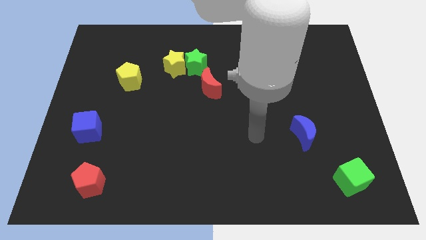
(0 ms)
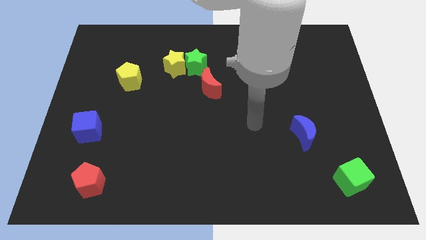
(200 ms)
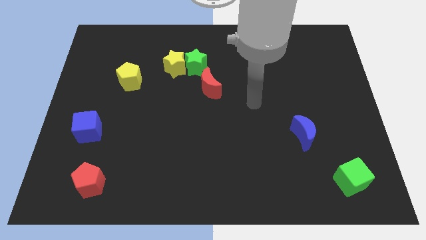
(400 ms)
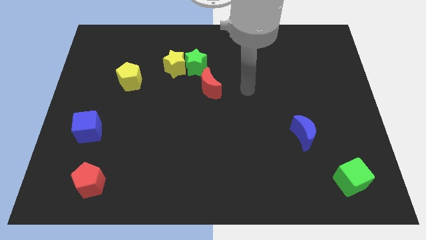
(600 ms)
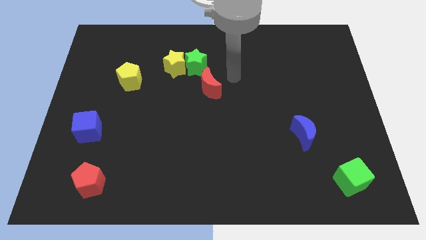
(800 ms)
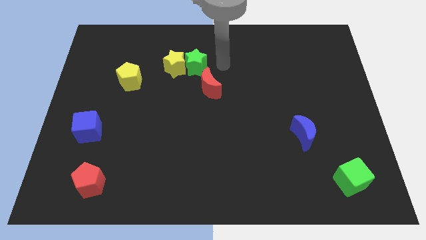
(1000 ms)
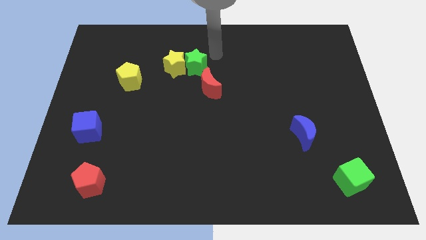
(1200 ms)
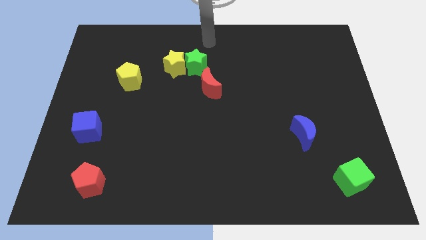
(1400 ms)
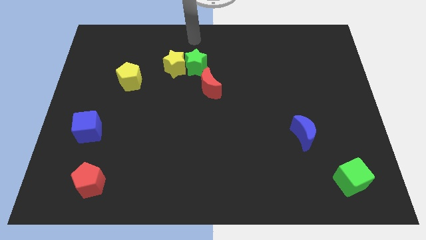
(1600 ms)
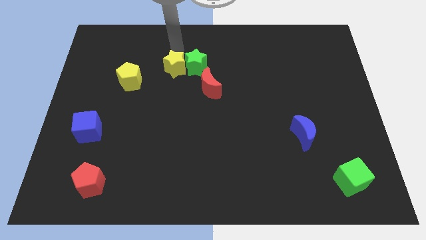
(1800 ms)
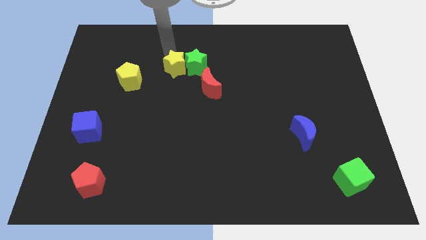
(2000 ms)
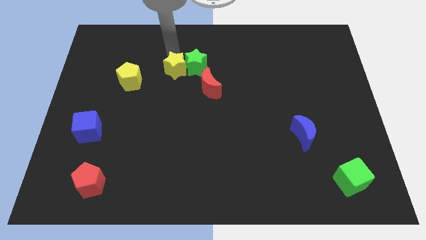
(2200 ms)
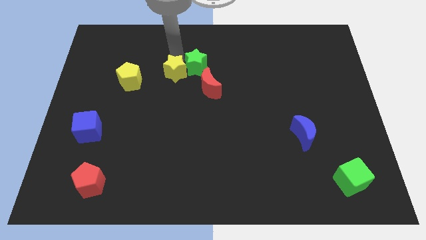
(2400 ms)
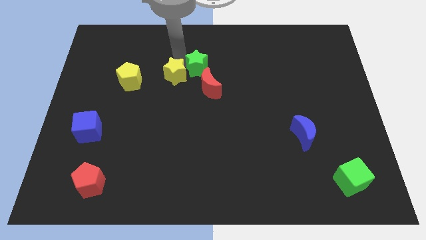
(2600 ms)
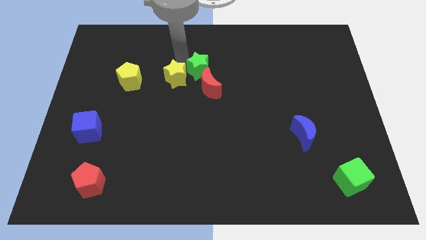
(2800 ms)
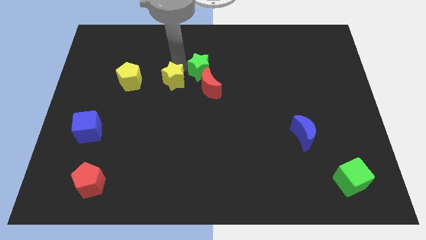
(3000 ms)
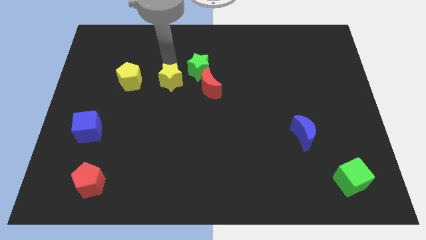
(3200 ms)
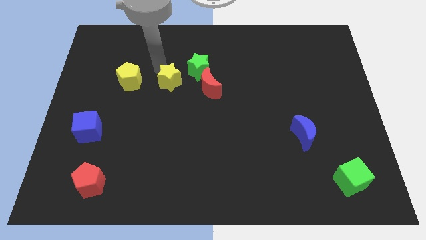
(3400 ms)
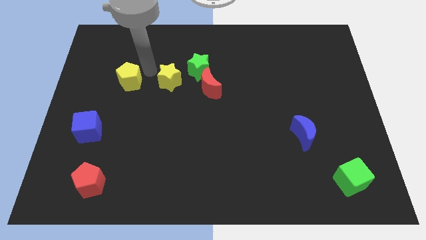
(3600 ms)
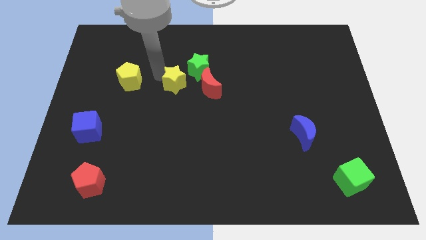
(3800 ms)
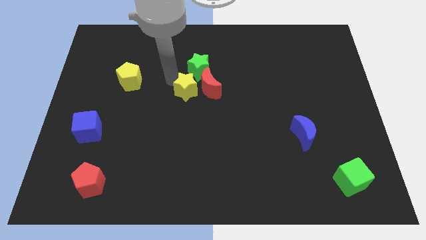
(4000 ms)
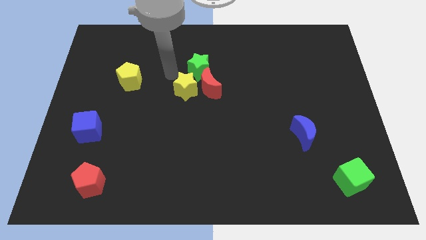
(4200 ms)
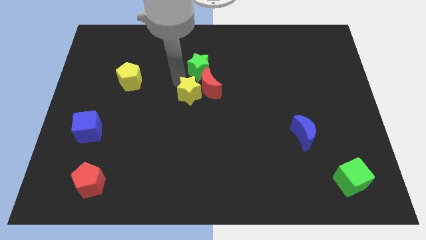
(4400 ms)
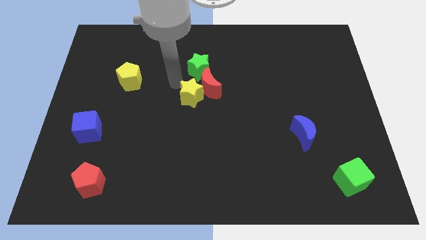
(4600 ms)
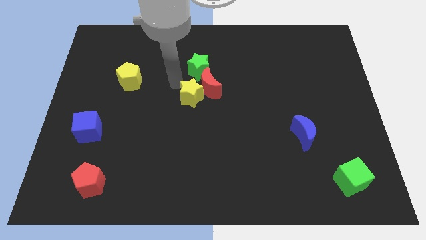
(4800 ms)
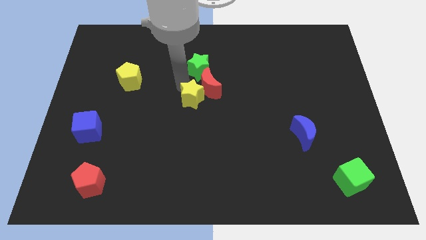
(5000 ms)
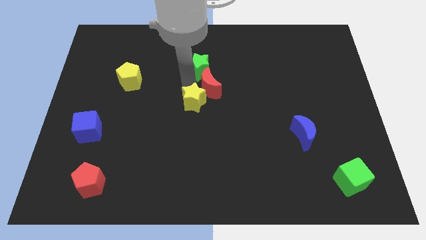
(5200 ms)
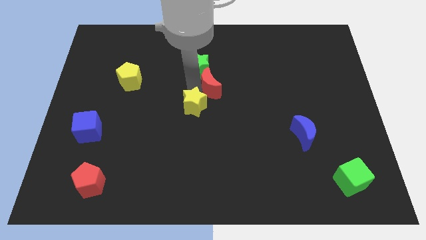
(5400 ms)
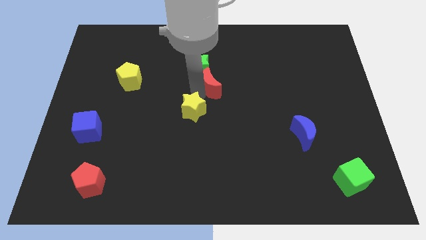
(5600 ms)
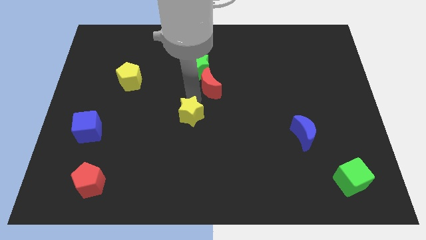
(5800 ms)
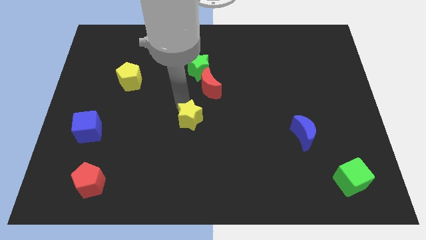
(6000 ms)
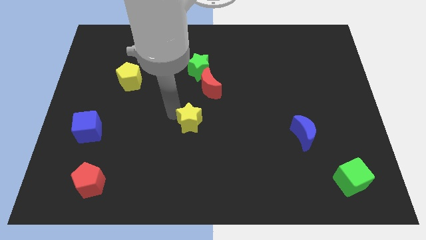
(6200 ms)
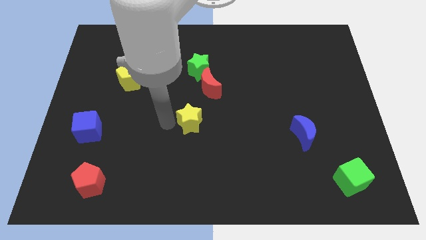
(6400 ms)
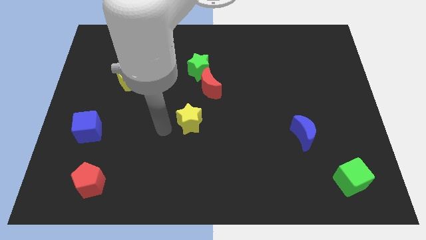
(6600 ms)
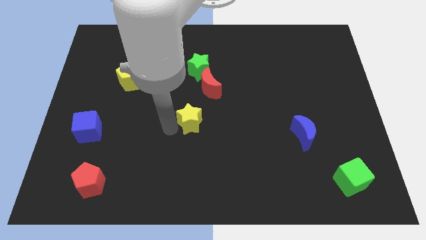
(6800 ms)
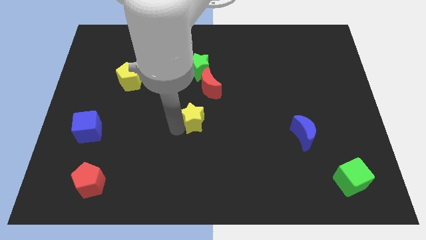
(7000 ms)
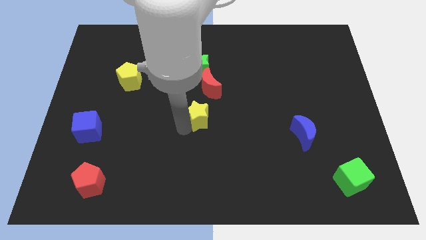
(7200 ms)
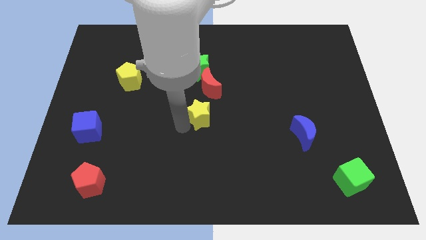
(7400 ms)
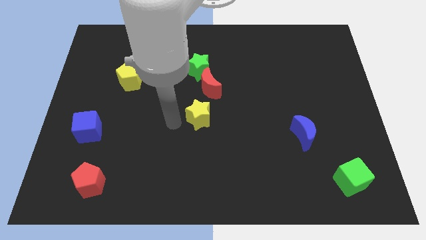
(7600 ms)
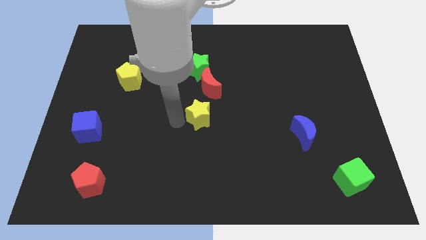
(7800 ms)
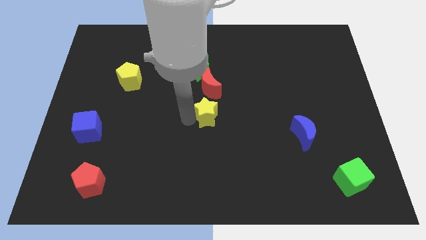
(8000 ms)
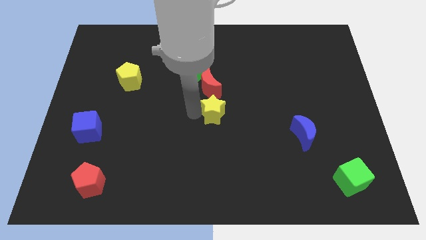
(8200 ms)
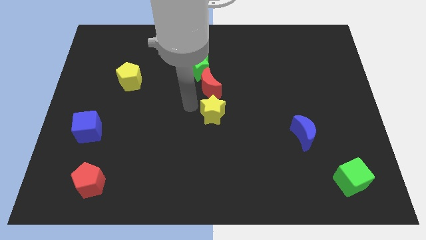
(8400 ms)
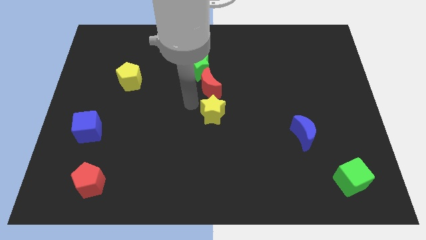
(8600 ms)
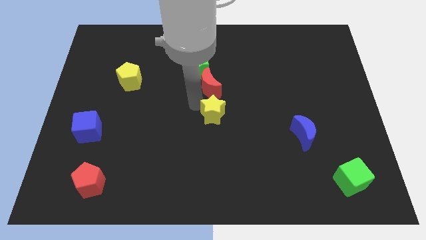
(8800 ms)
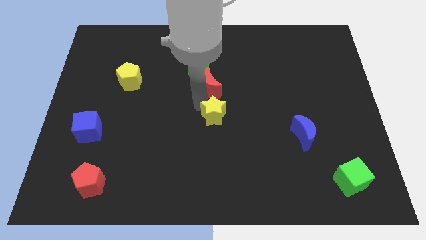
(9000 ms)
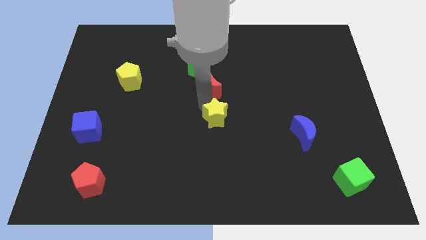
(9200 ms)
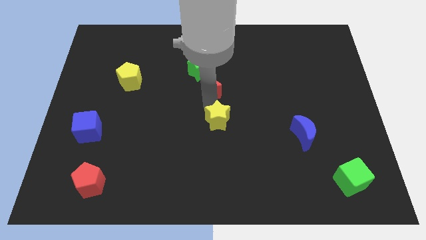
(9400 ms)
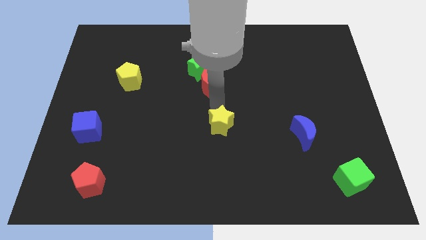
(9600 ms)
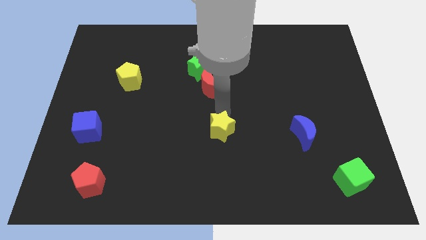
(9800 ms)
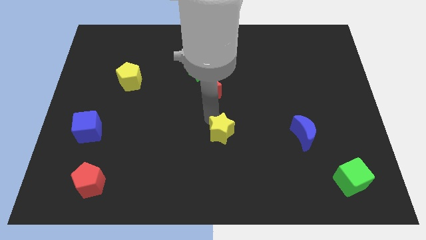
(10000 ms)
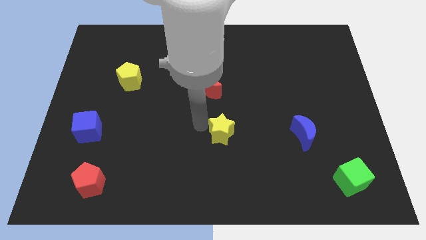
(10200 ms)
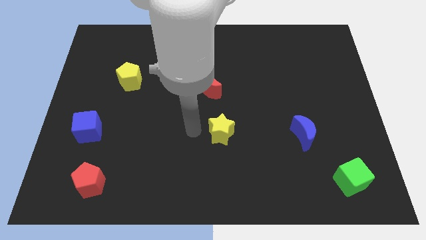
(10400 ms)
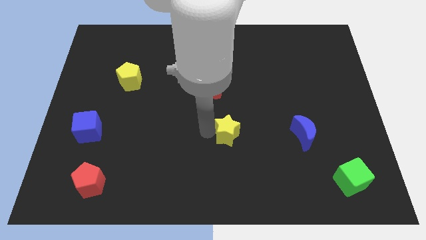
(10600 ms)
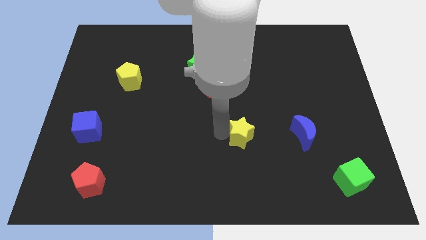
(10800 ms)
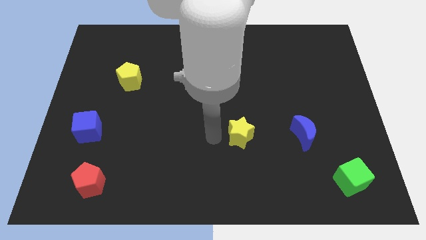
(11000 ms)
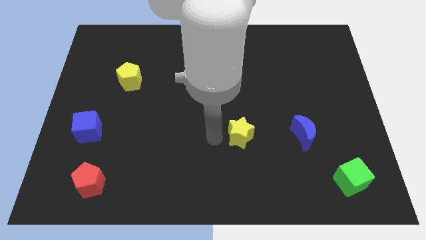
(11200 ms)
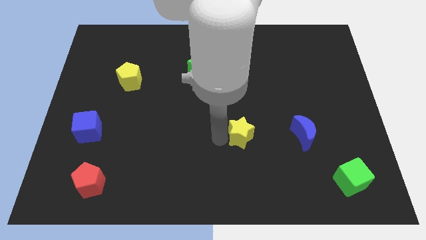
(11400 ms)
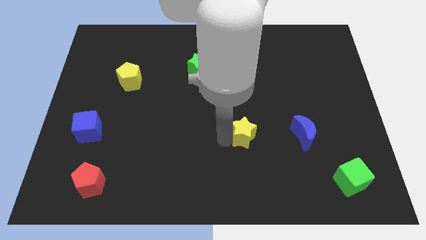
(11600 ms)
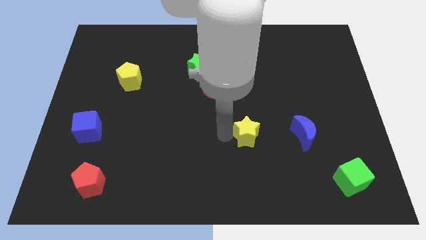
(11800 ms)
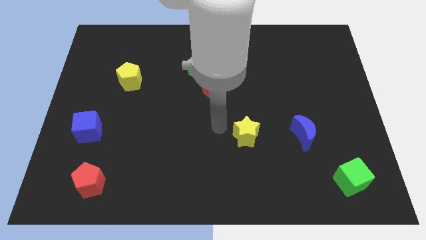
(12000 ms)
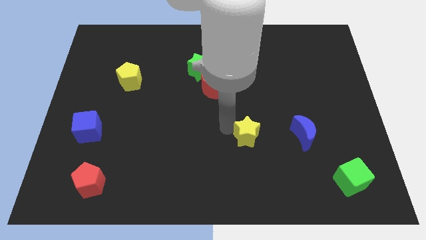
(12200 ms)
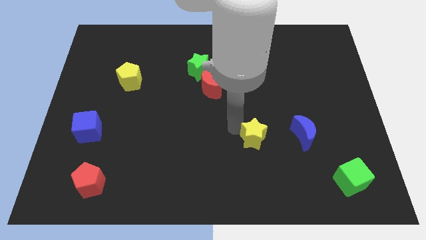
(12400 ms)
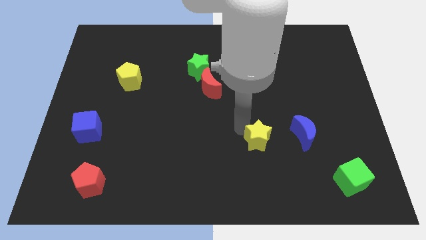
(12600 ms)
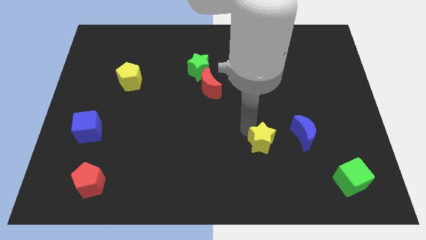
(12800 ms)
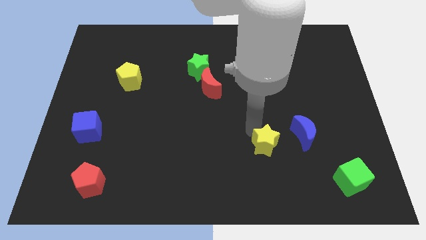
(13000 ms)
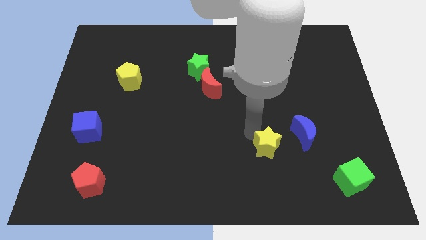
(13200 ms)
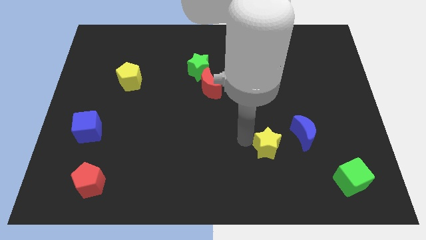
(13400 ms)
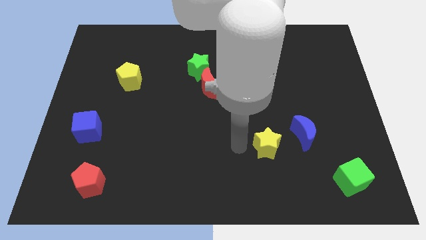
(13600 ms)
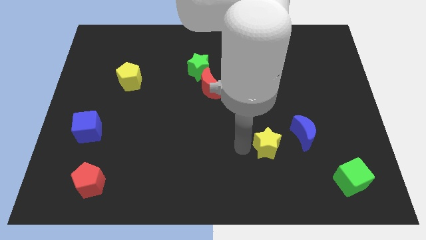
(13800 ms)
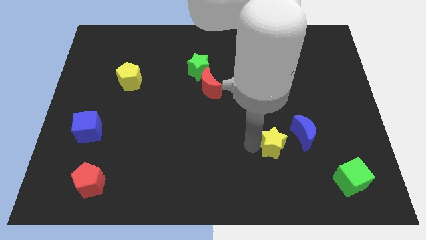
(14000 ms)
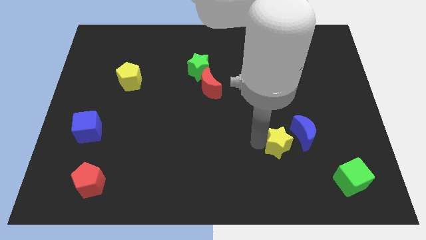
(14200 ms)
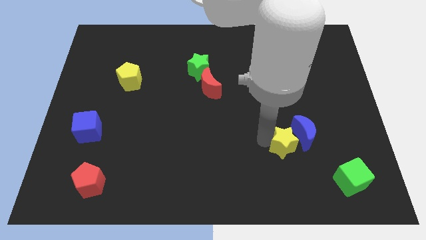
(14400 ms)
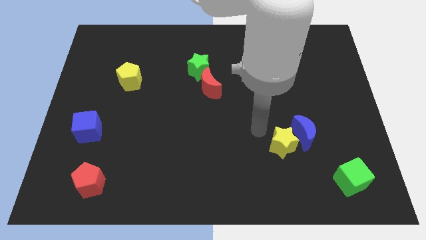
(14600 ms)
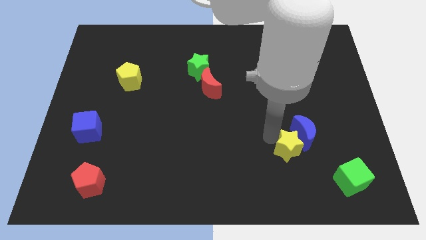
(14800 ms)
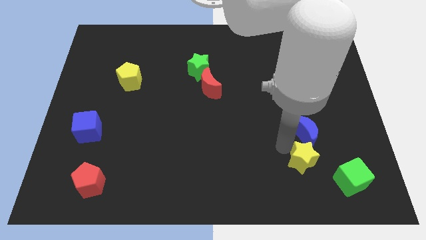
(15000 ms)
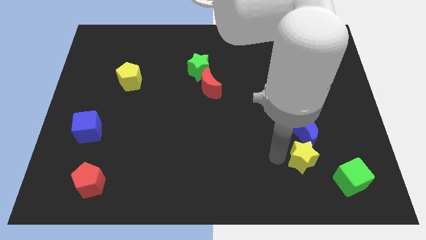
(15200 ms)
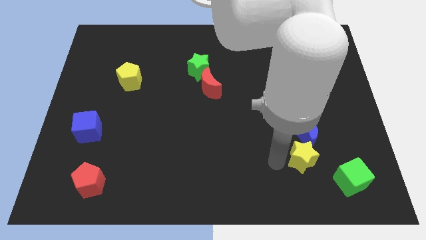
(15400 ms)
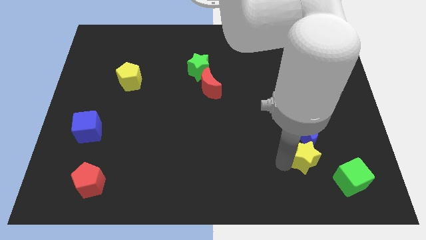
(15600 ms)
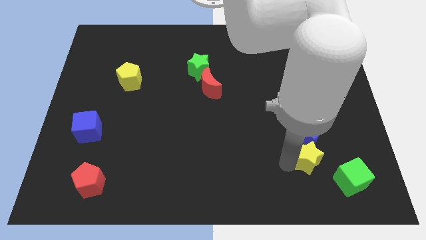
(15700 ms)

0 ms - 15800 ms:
move the yellow star to the bottom right side of the blue moon
